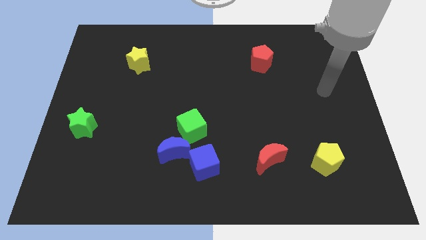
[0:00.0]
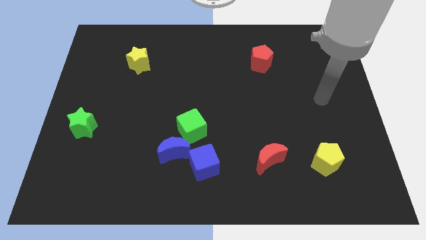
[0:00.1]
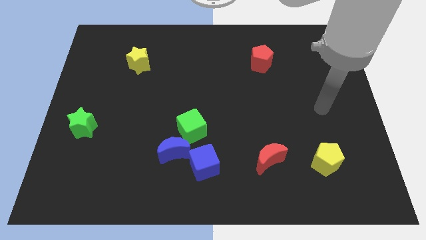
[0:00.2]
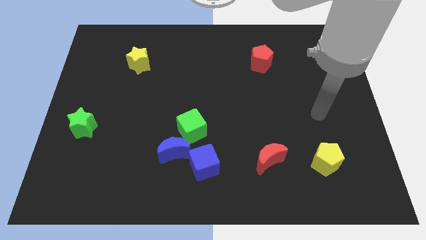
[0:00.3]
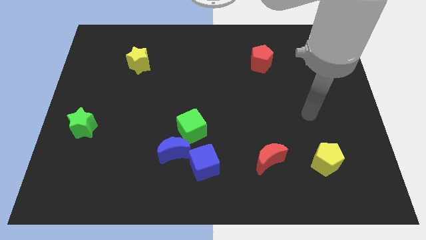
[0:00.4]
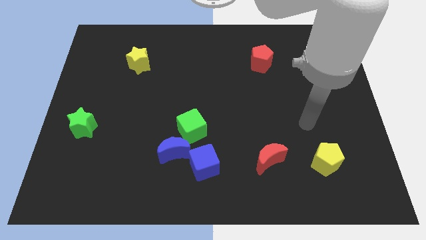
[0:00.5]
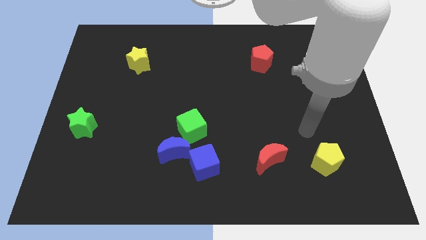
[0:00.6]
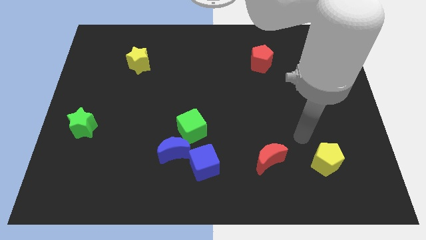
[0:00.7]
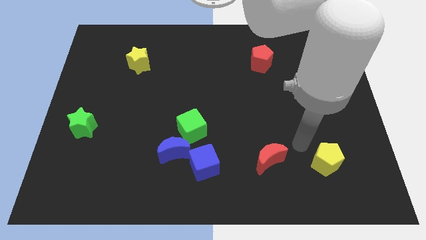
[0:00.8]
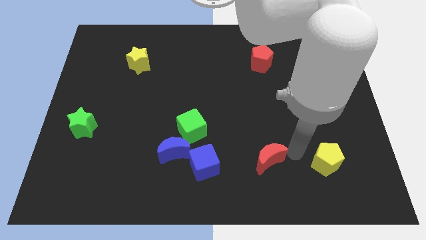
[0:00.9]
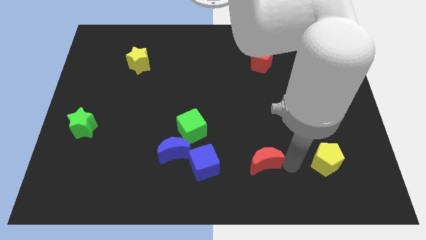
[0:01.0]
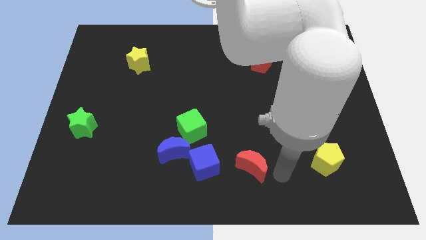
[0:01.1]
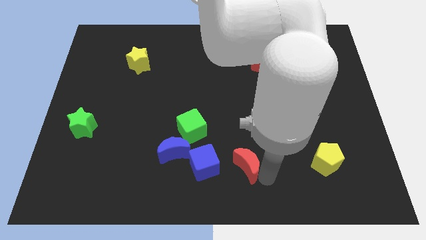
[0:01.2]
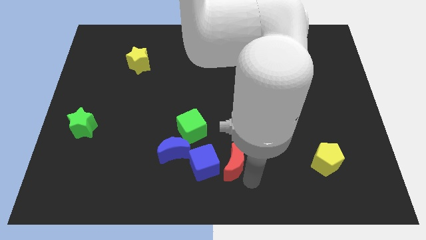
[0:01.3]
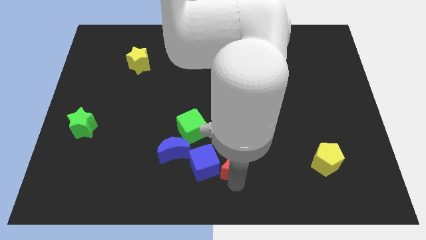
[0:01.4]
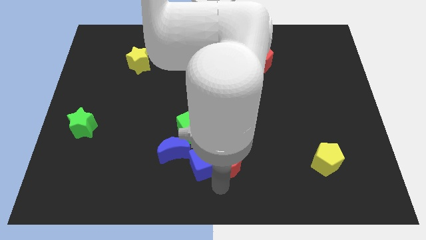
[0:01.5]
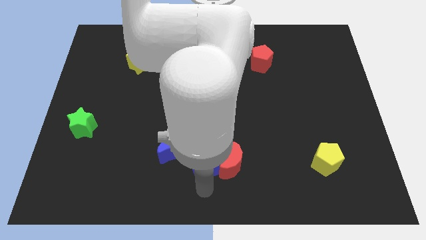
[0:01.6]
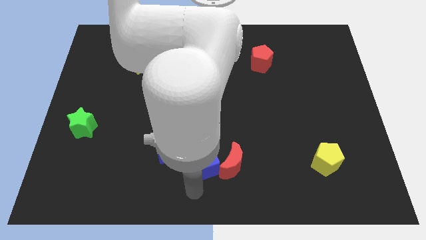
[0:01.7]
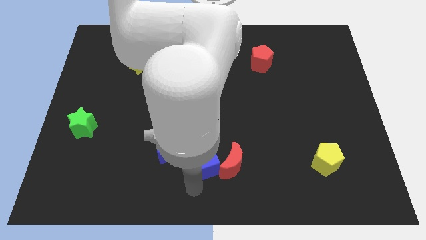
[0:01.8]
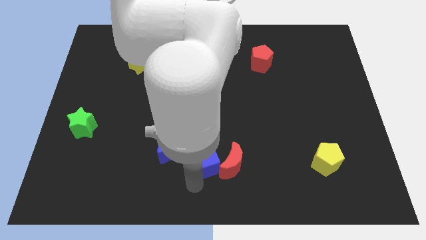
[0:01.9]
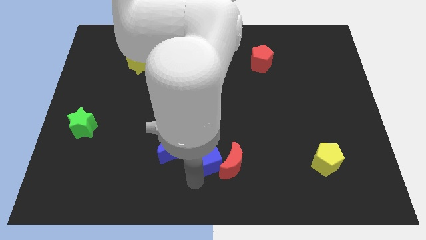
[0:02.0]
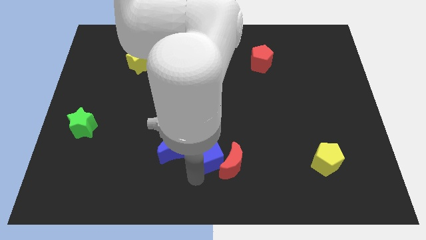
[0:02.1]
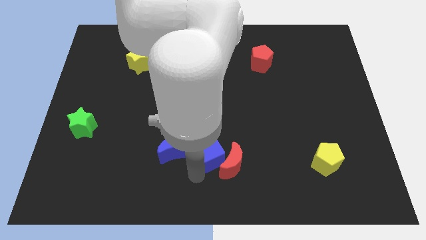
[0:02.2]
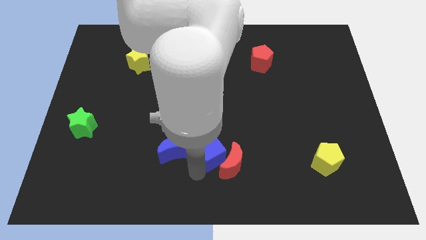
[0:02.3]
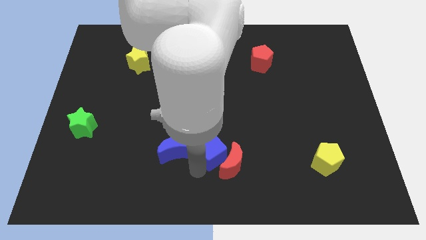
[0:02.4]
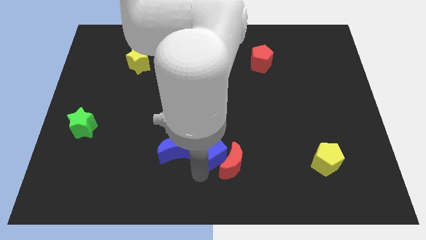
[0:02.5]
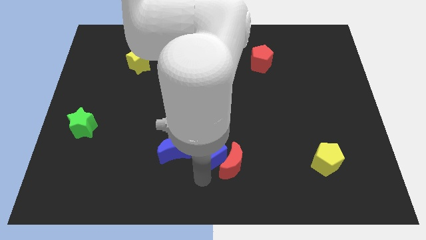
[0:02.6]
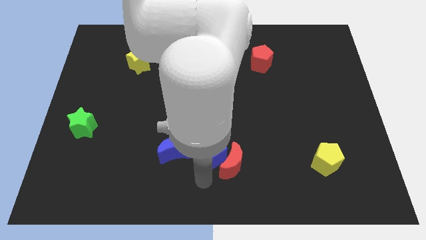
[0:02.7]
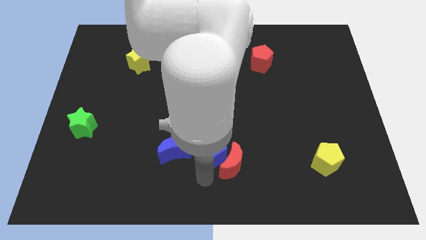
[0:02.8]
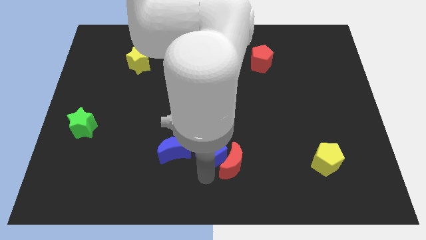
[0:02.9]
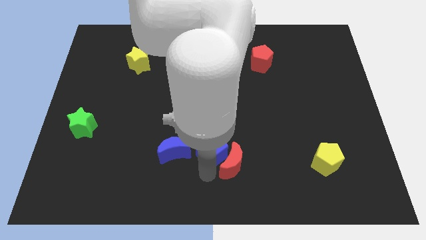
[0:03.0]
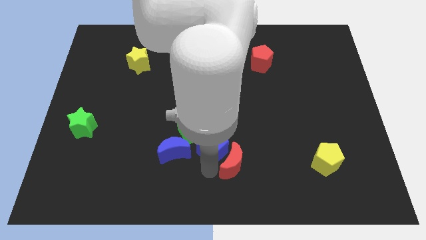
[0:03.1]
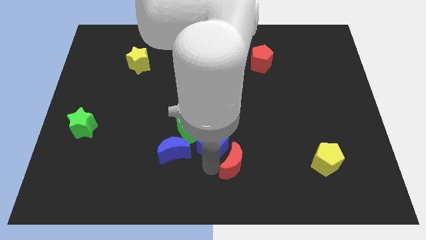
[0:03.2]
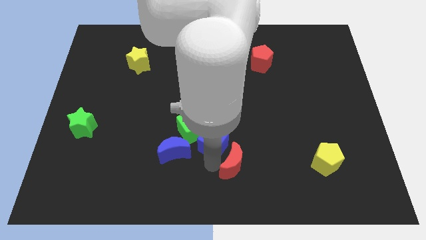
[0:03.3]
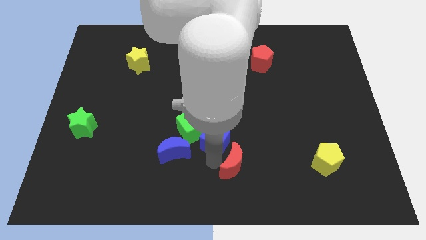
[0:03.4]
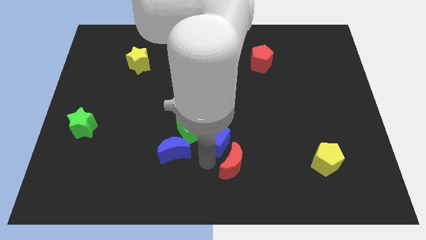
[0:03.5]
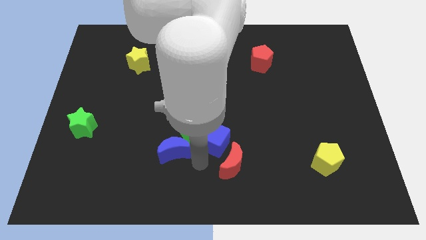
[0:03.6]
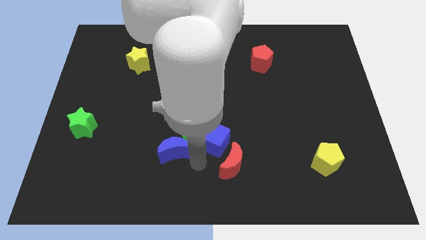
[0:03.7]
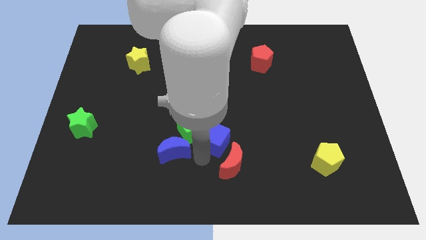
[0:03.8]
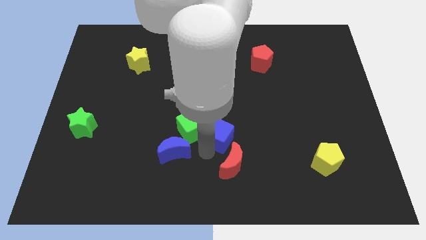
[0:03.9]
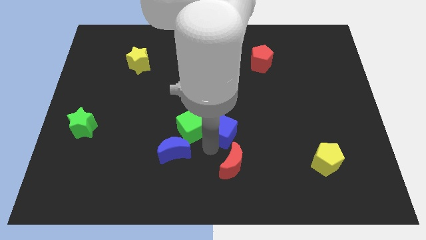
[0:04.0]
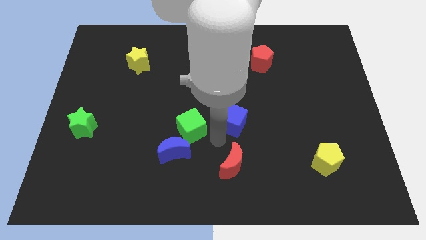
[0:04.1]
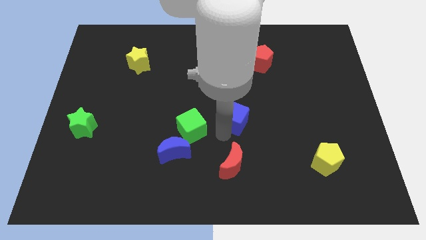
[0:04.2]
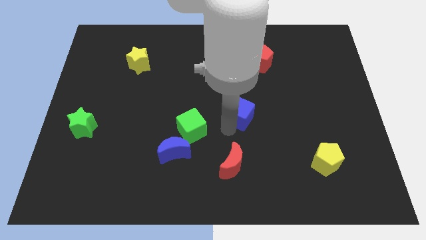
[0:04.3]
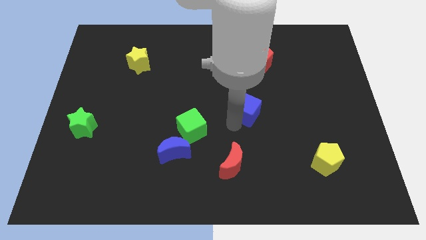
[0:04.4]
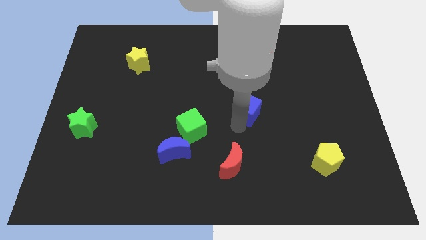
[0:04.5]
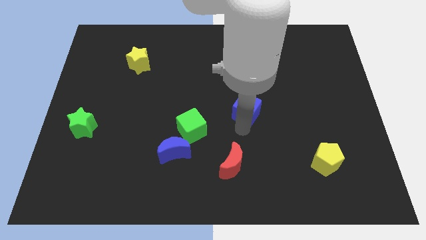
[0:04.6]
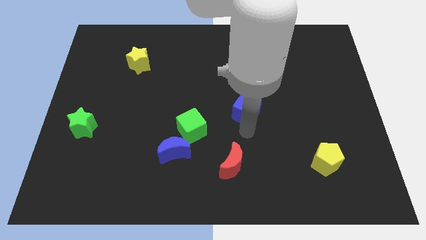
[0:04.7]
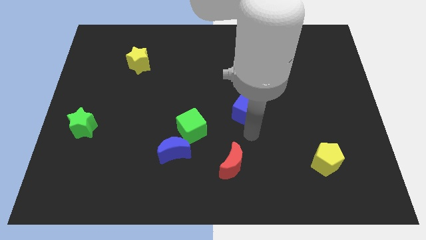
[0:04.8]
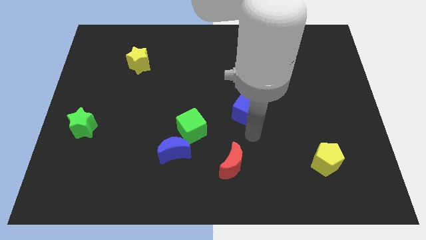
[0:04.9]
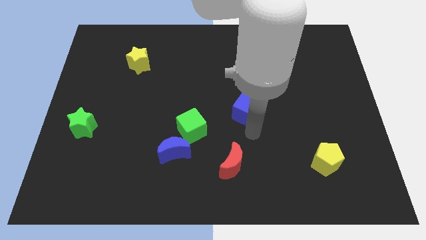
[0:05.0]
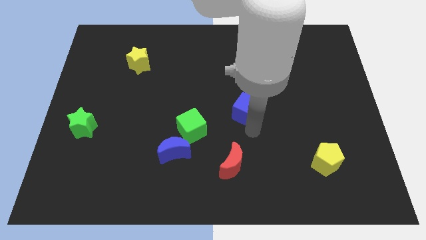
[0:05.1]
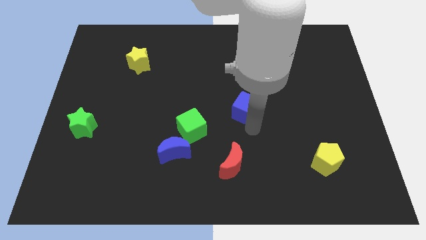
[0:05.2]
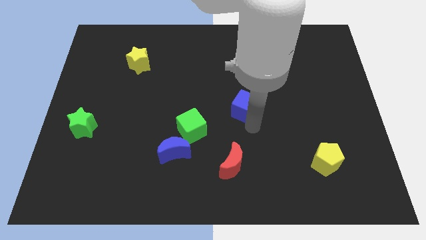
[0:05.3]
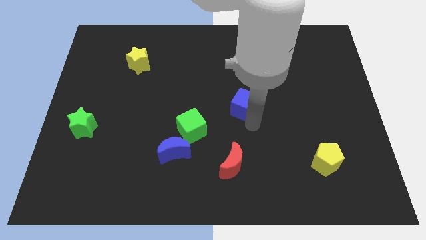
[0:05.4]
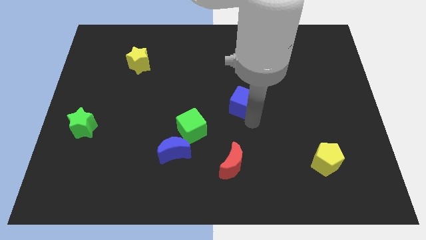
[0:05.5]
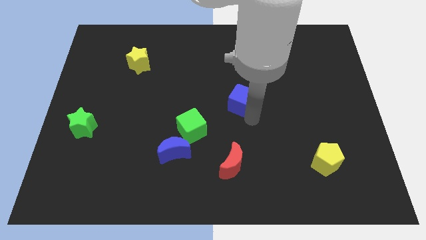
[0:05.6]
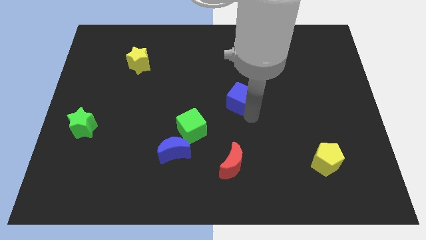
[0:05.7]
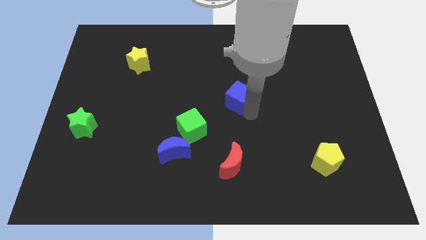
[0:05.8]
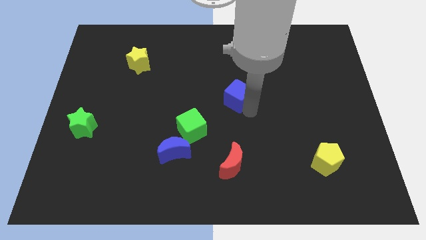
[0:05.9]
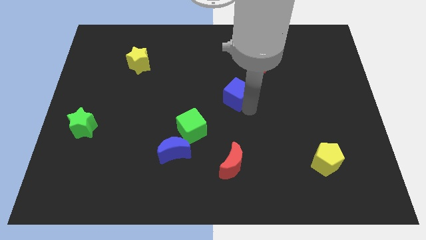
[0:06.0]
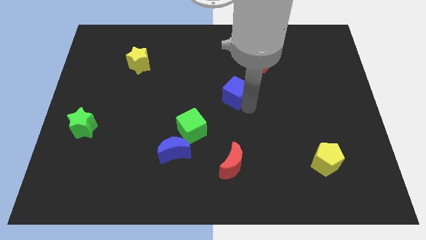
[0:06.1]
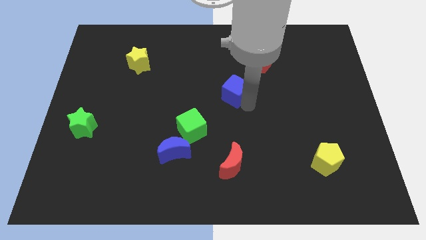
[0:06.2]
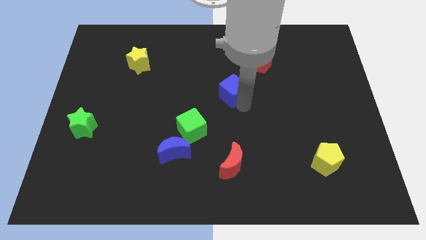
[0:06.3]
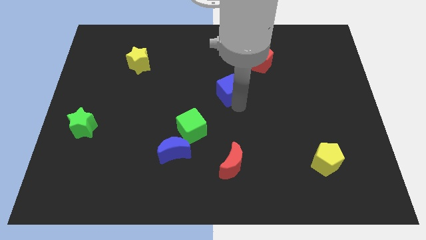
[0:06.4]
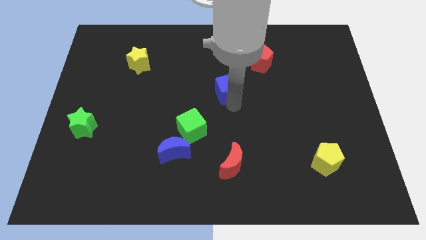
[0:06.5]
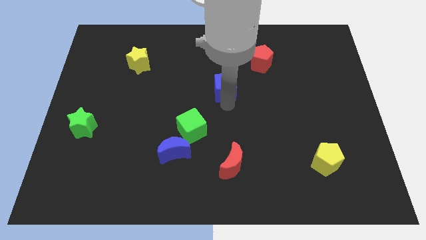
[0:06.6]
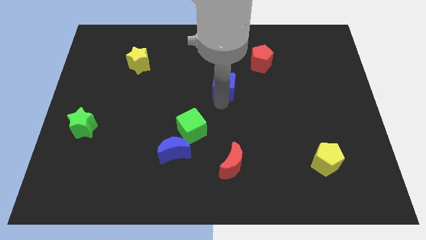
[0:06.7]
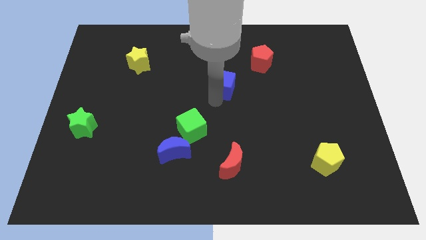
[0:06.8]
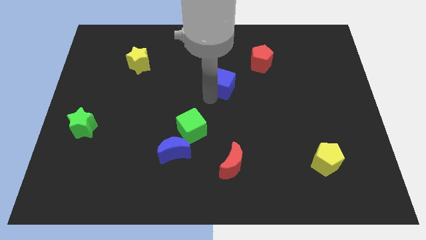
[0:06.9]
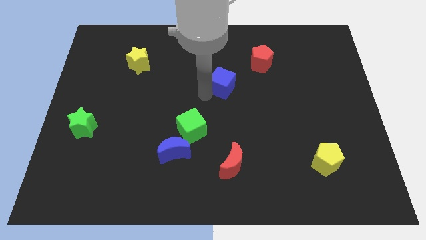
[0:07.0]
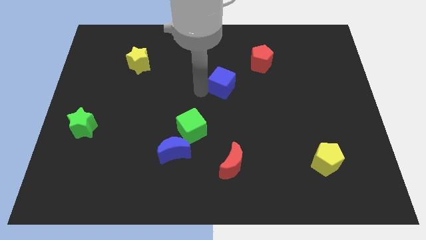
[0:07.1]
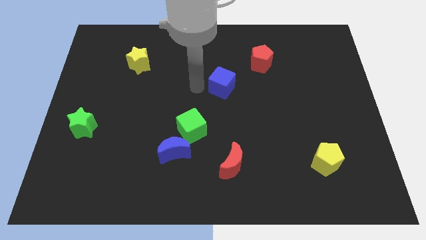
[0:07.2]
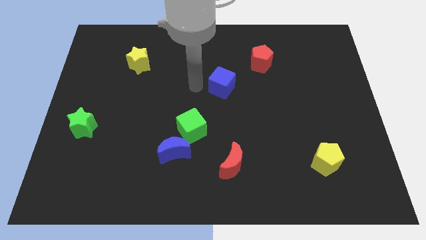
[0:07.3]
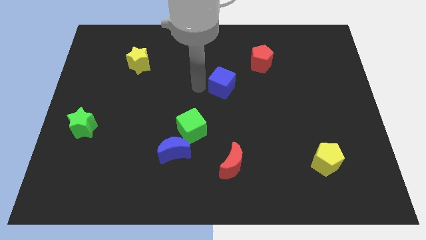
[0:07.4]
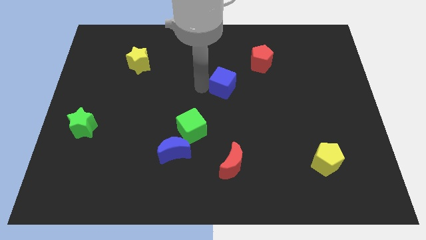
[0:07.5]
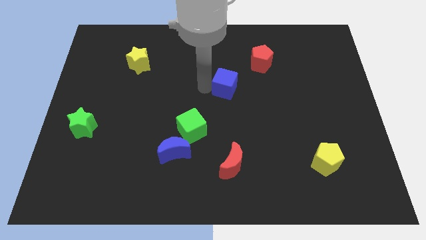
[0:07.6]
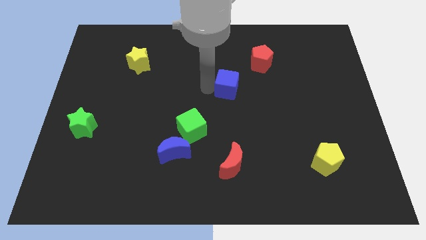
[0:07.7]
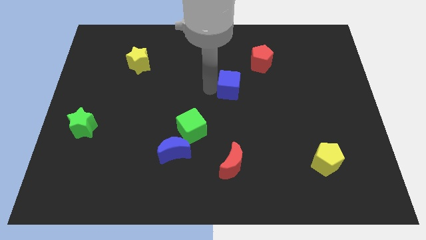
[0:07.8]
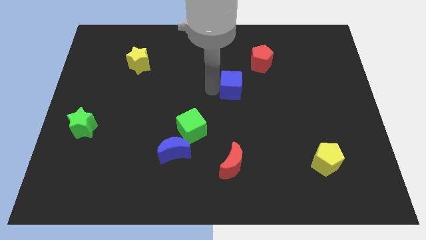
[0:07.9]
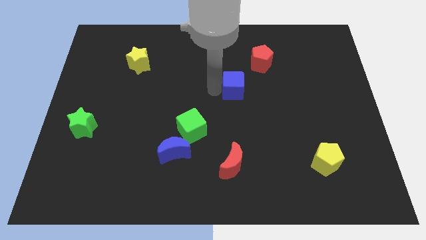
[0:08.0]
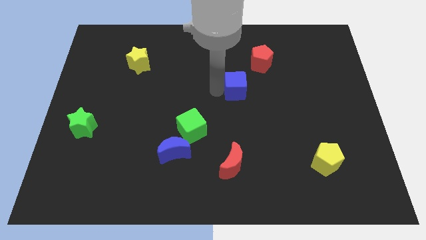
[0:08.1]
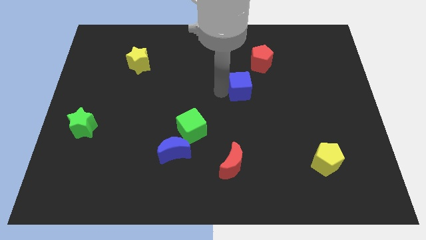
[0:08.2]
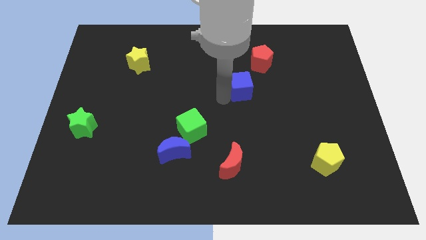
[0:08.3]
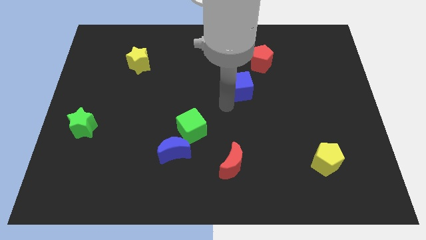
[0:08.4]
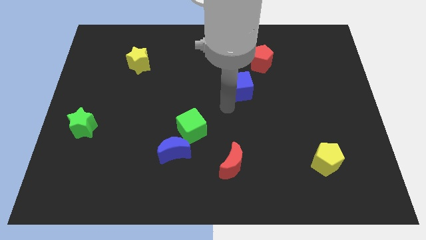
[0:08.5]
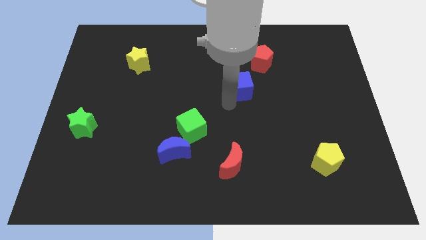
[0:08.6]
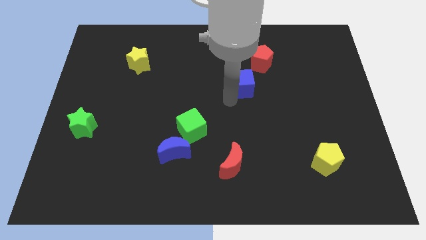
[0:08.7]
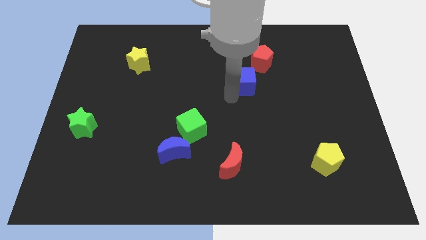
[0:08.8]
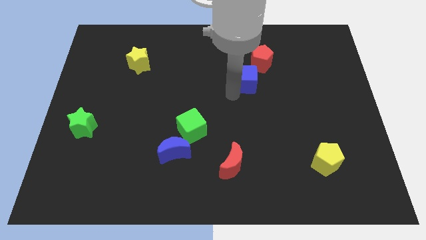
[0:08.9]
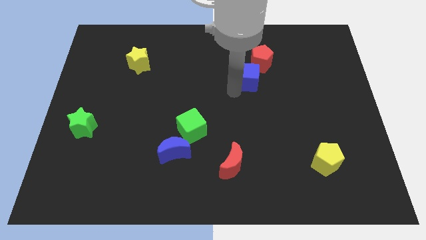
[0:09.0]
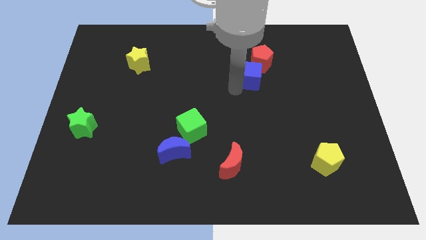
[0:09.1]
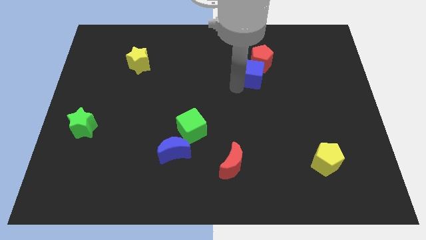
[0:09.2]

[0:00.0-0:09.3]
put the blue cube next to the red pentagon
